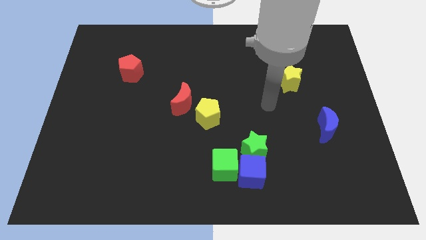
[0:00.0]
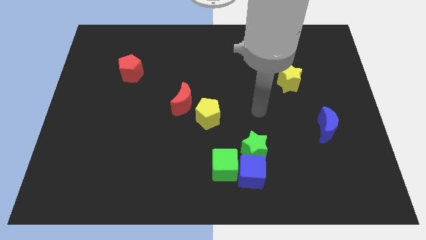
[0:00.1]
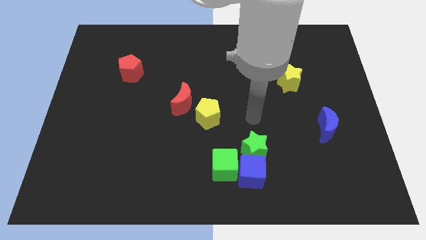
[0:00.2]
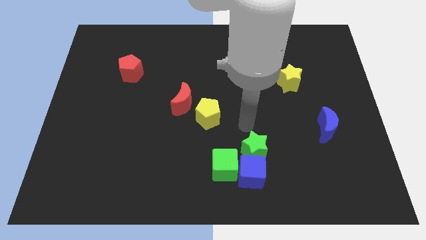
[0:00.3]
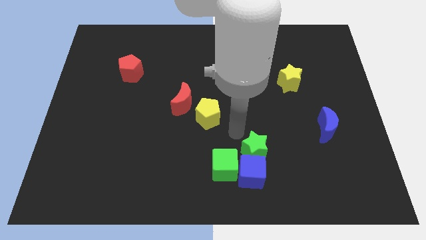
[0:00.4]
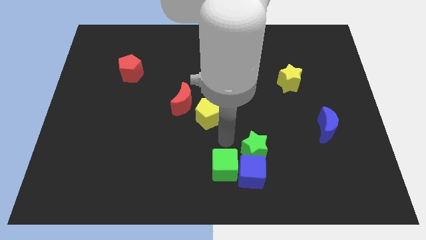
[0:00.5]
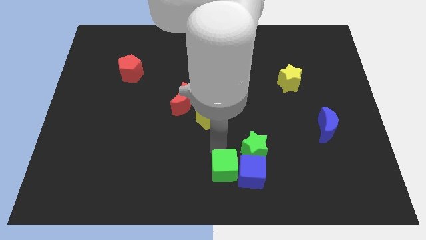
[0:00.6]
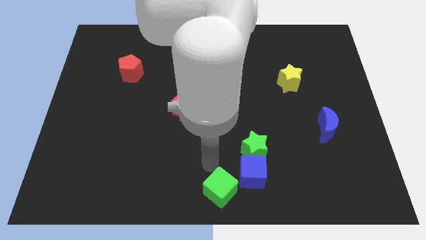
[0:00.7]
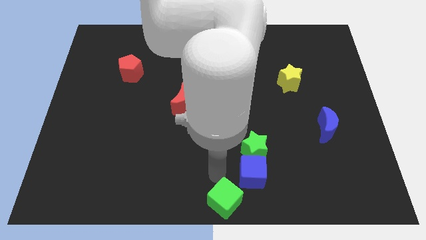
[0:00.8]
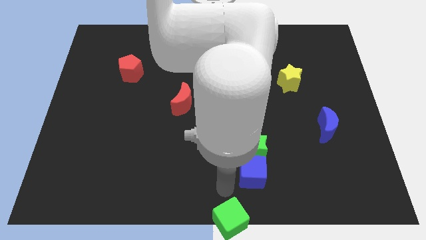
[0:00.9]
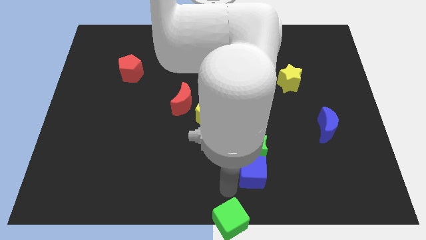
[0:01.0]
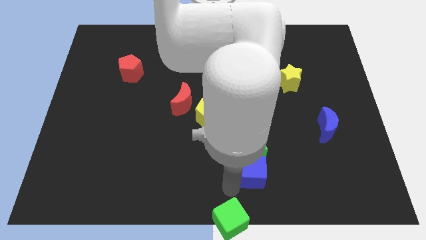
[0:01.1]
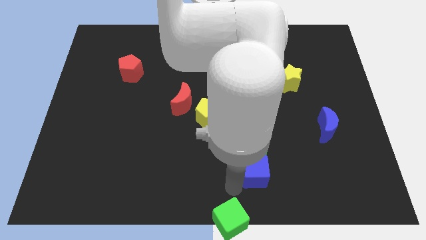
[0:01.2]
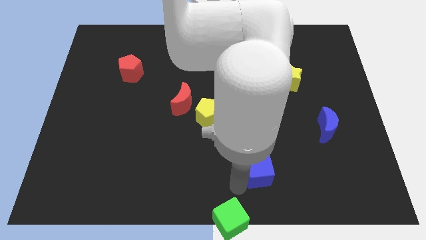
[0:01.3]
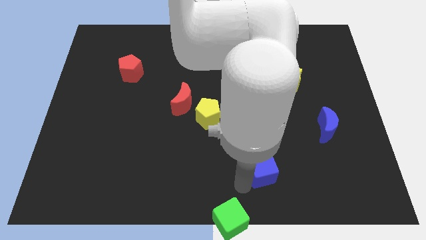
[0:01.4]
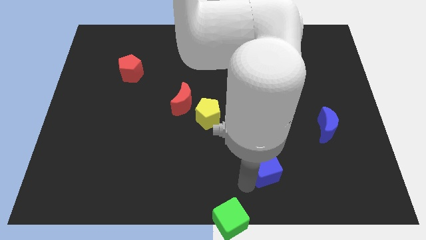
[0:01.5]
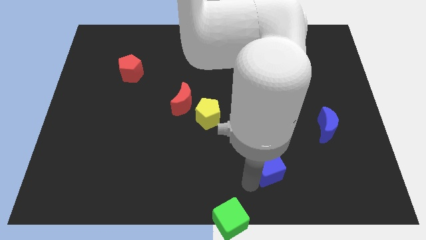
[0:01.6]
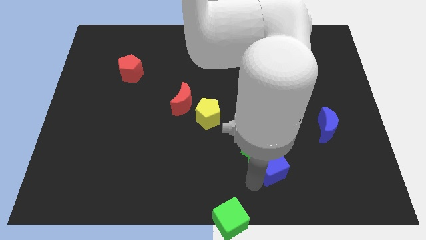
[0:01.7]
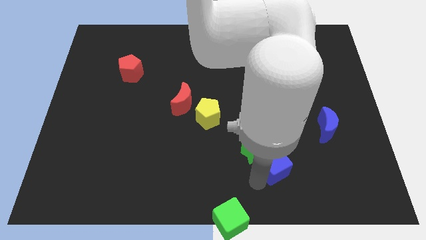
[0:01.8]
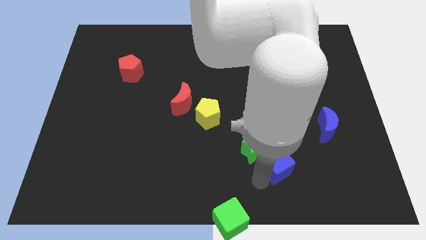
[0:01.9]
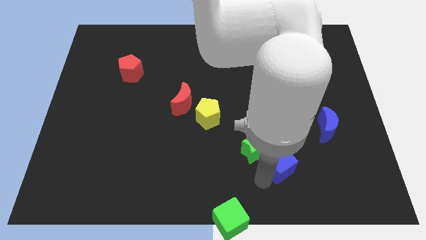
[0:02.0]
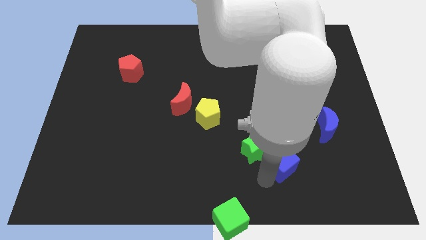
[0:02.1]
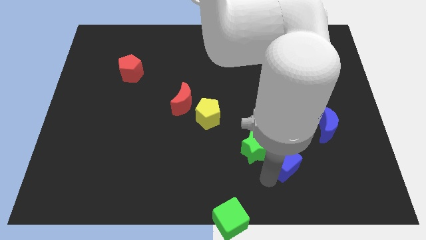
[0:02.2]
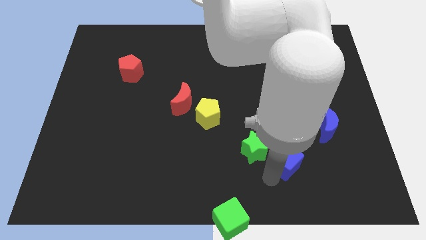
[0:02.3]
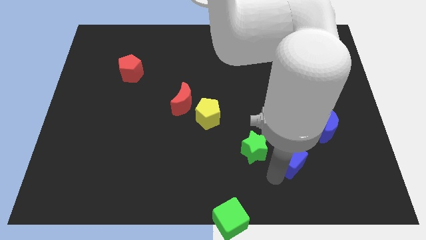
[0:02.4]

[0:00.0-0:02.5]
slide the blue cube slightly up and to the right

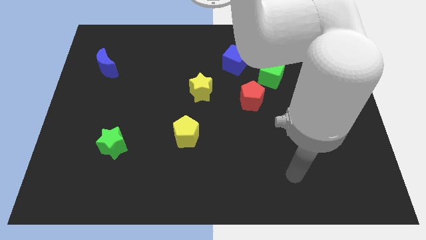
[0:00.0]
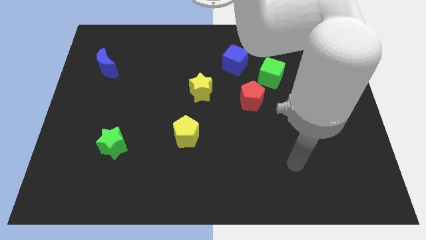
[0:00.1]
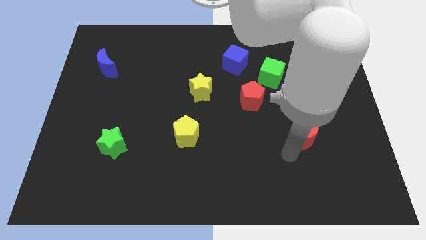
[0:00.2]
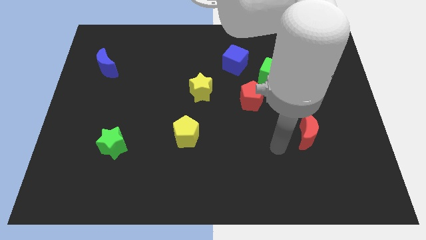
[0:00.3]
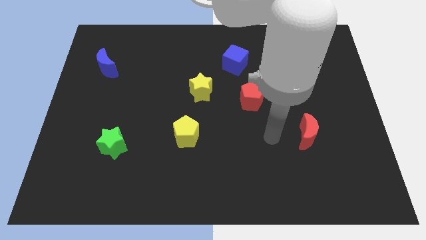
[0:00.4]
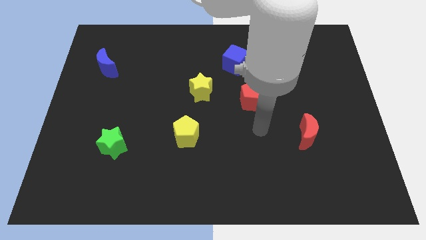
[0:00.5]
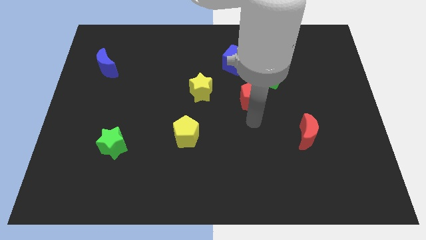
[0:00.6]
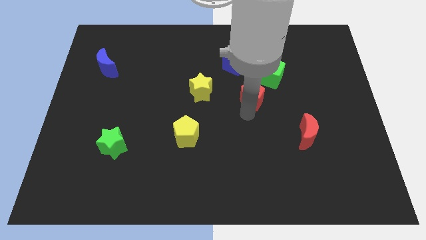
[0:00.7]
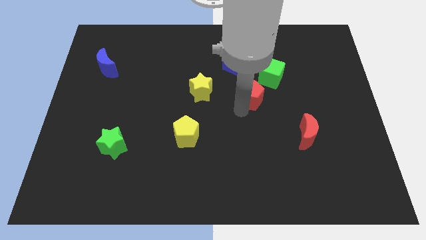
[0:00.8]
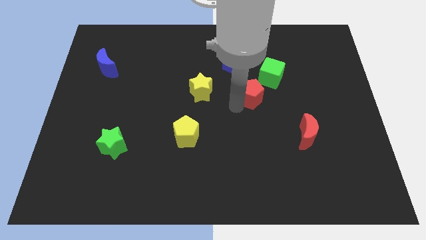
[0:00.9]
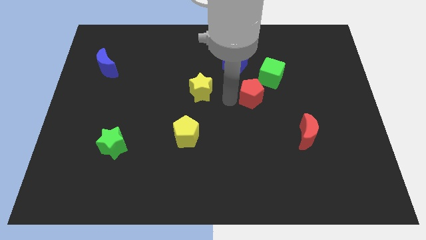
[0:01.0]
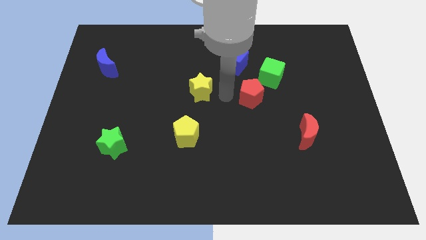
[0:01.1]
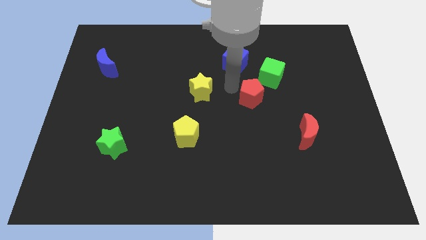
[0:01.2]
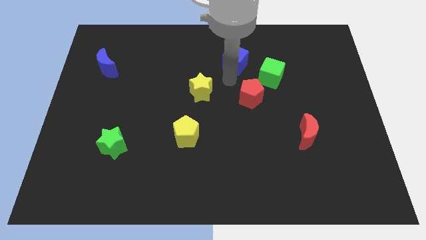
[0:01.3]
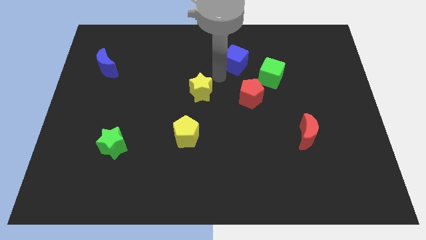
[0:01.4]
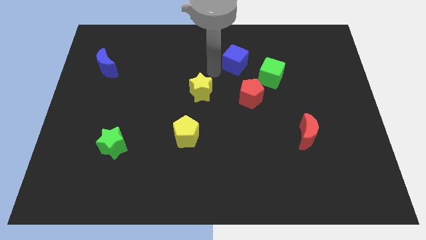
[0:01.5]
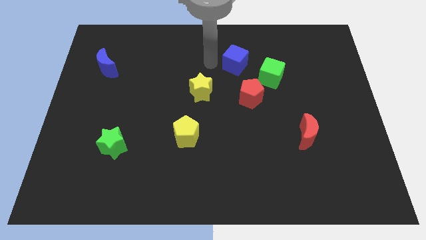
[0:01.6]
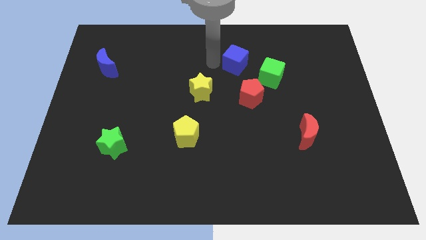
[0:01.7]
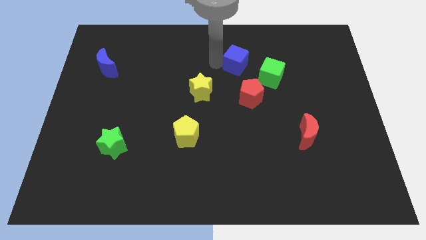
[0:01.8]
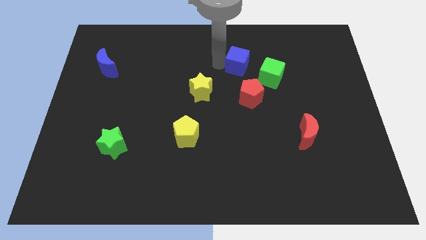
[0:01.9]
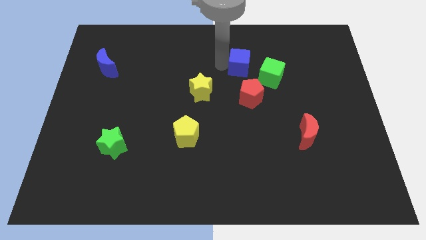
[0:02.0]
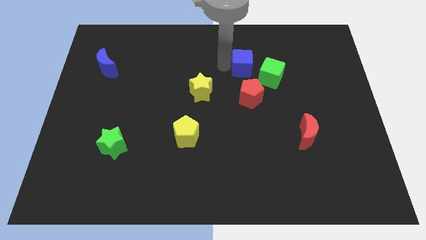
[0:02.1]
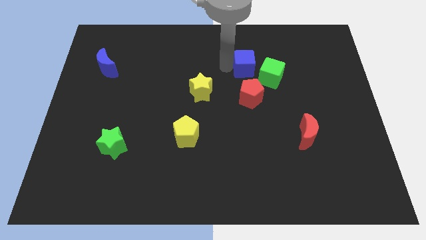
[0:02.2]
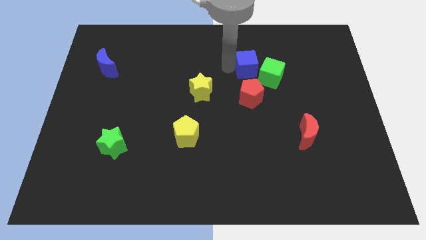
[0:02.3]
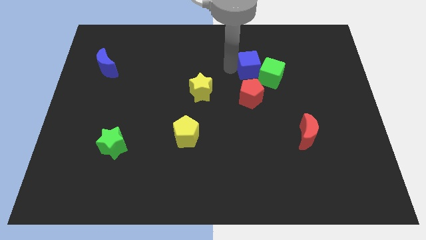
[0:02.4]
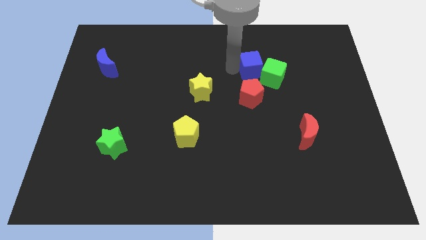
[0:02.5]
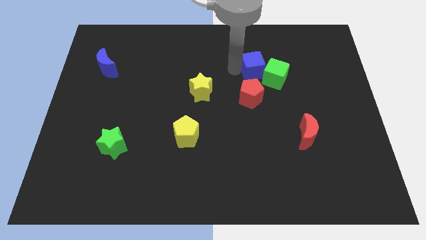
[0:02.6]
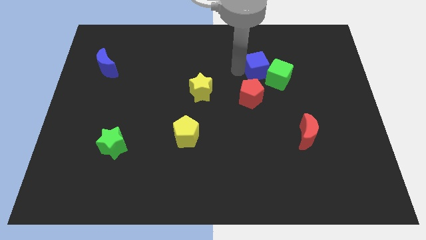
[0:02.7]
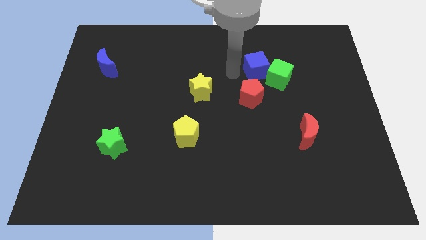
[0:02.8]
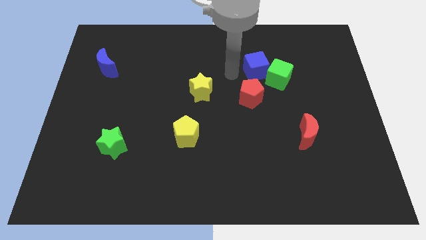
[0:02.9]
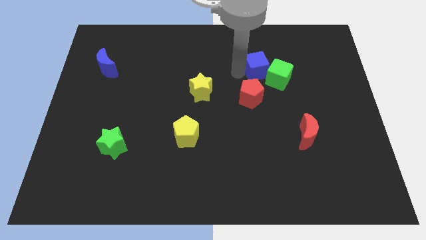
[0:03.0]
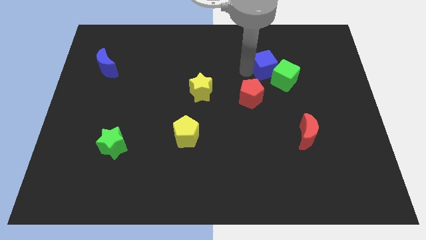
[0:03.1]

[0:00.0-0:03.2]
slide the blue cube to the right a little bit

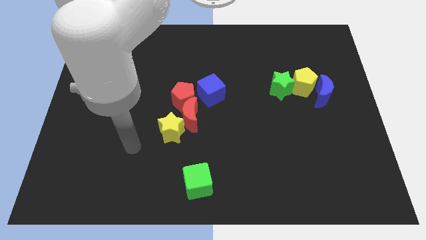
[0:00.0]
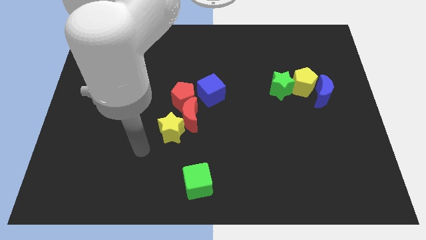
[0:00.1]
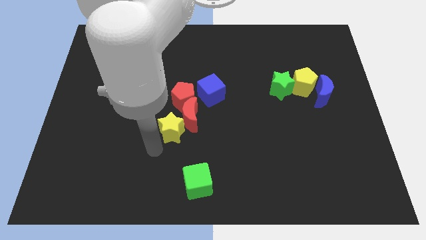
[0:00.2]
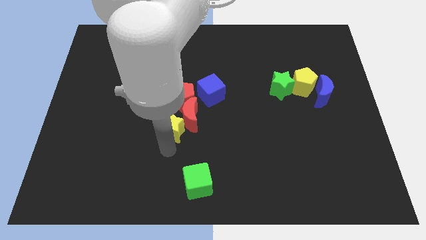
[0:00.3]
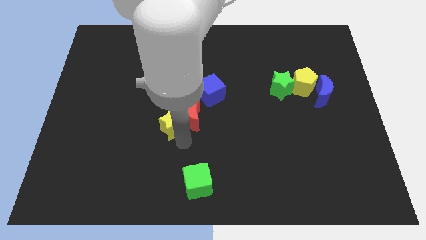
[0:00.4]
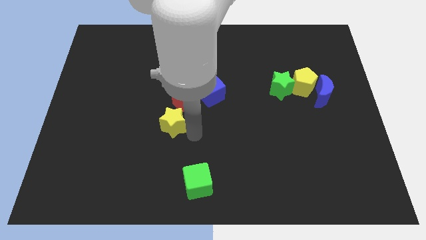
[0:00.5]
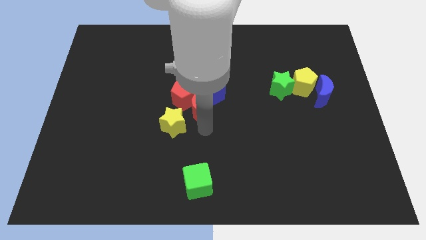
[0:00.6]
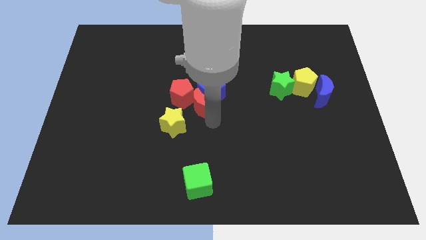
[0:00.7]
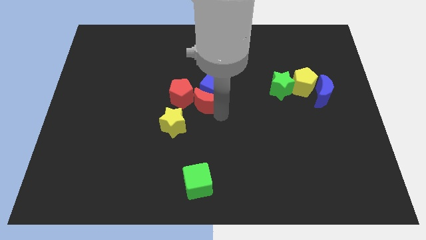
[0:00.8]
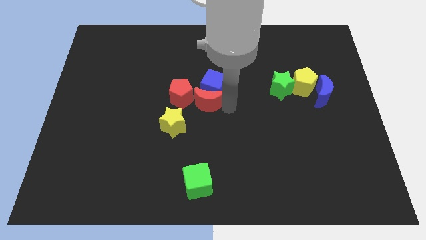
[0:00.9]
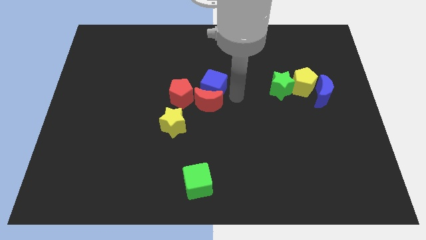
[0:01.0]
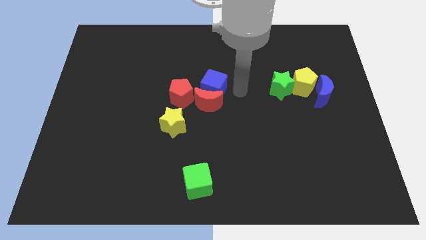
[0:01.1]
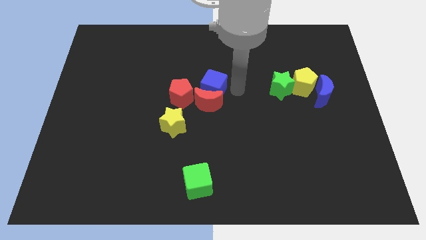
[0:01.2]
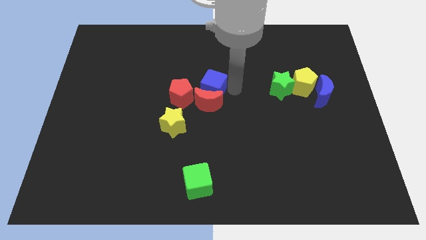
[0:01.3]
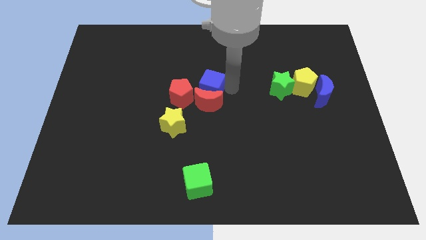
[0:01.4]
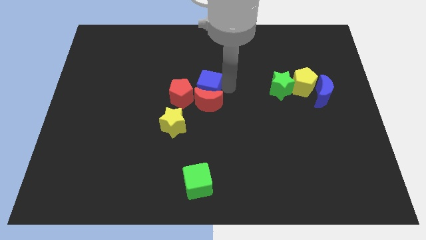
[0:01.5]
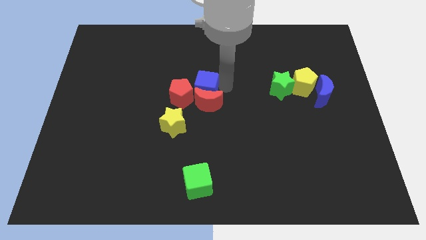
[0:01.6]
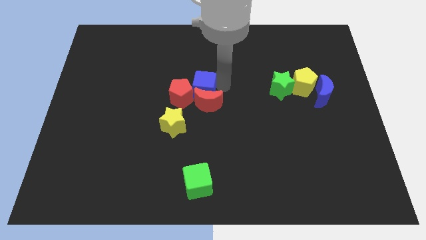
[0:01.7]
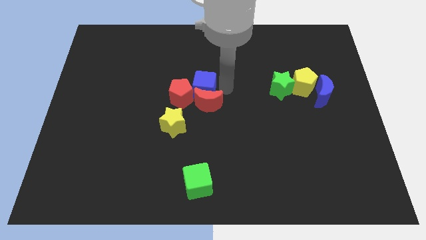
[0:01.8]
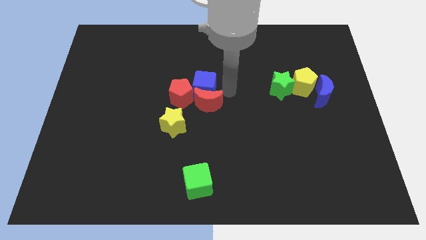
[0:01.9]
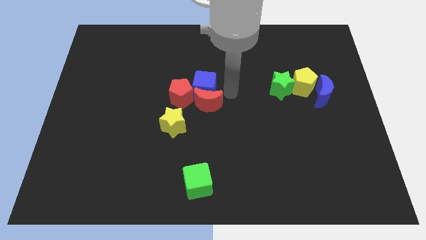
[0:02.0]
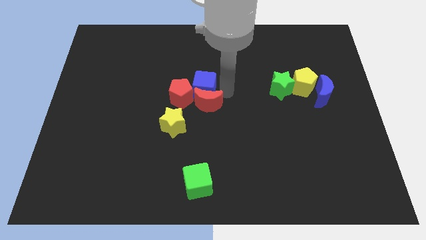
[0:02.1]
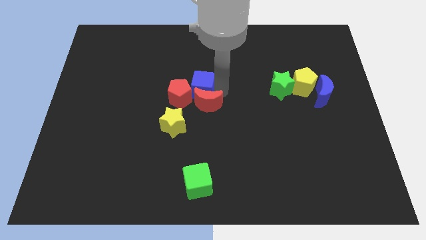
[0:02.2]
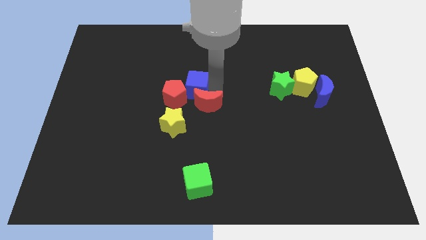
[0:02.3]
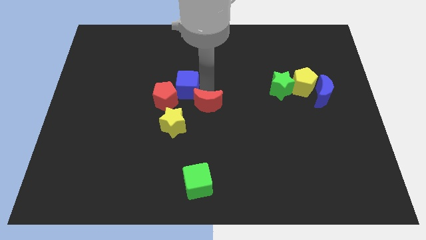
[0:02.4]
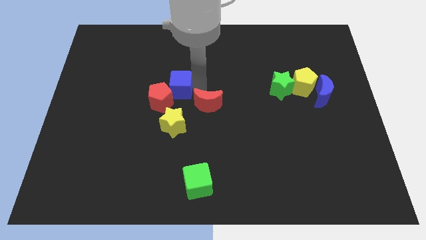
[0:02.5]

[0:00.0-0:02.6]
slide the blue cube to the left a bit
